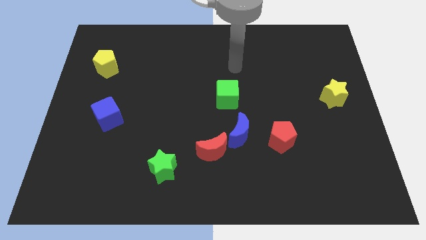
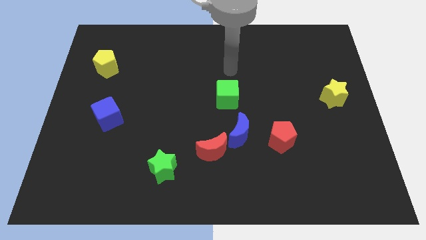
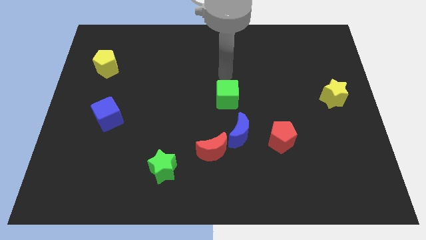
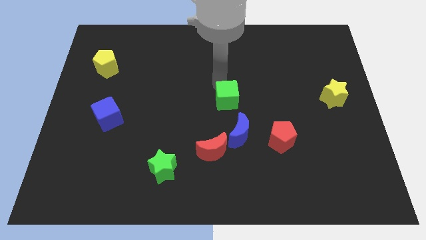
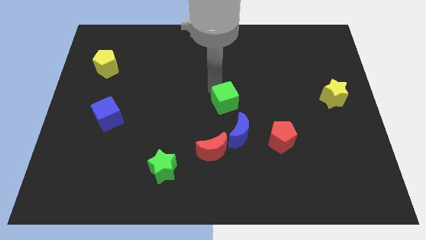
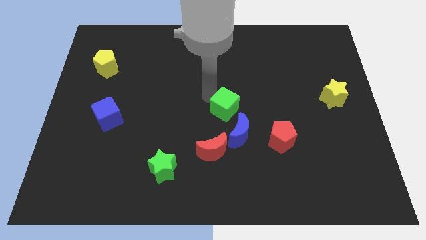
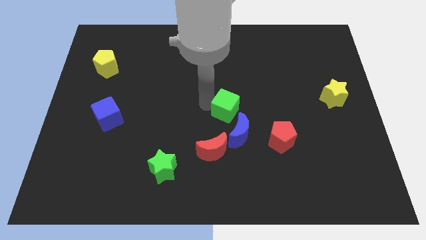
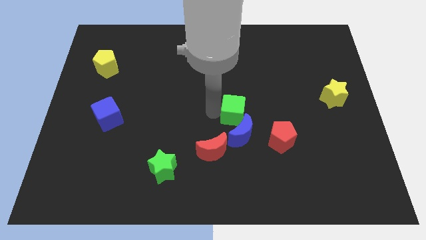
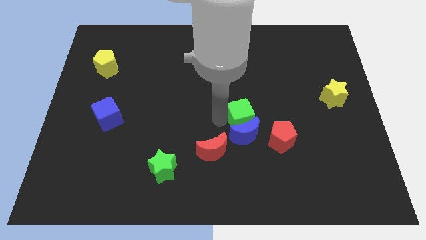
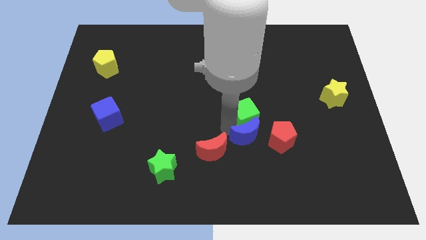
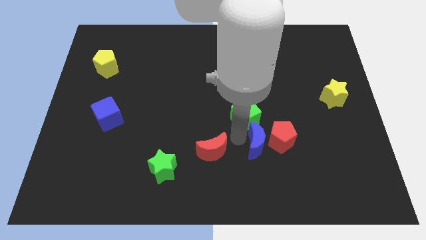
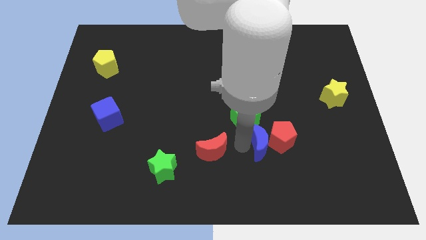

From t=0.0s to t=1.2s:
separate the red moon from the blue moon

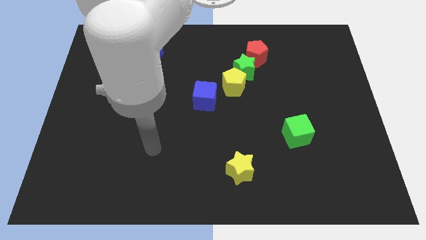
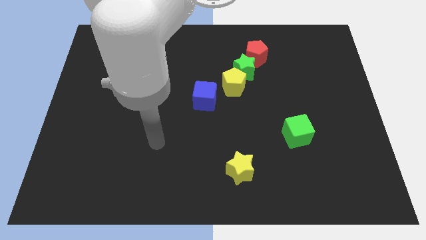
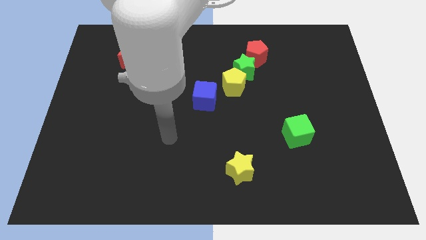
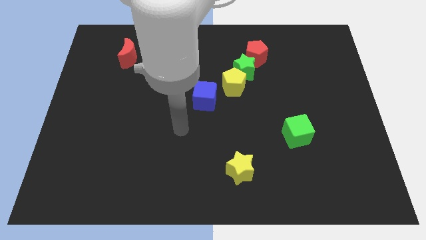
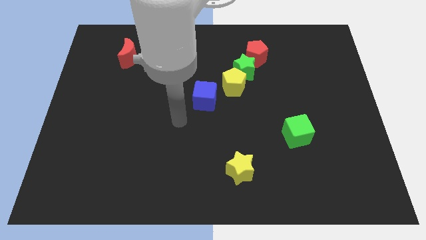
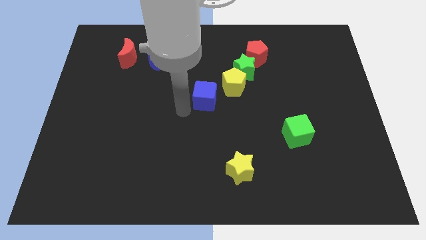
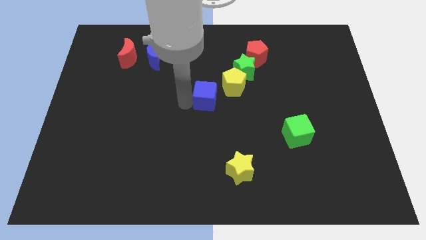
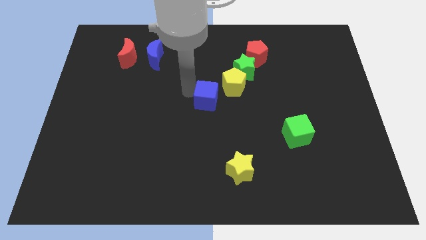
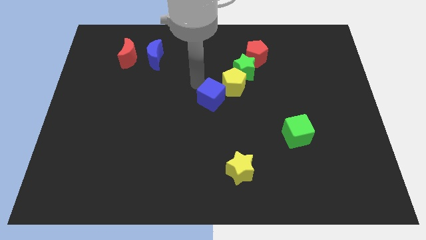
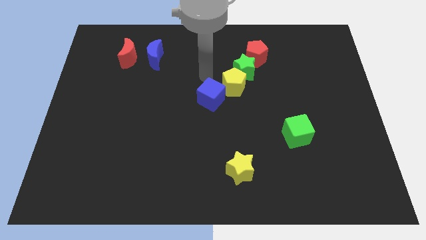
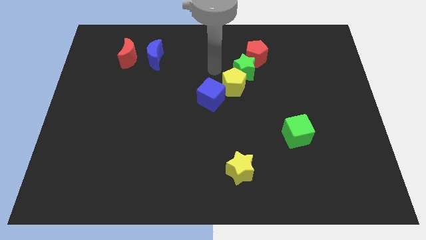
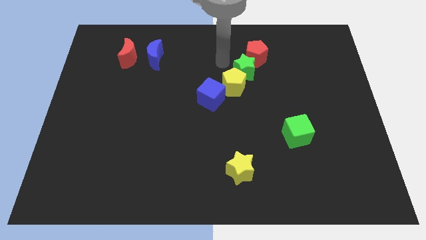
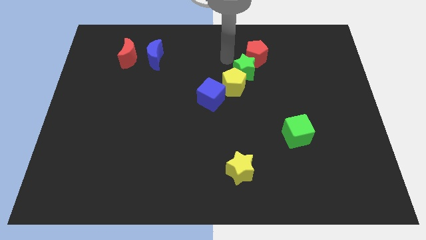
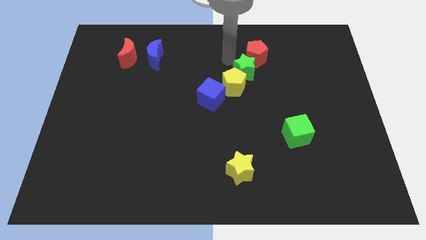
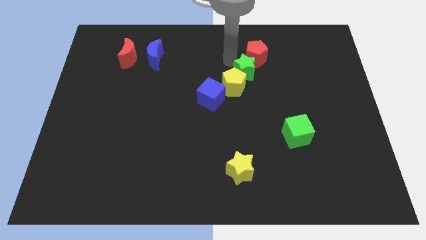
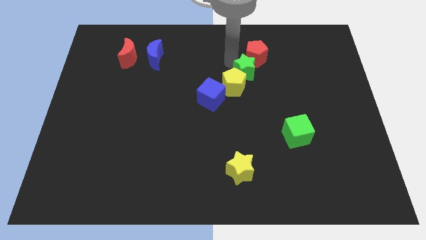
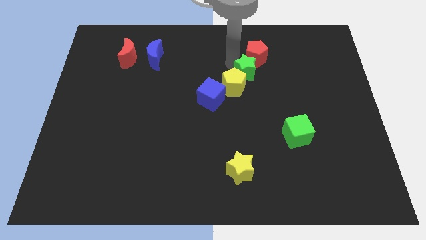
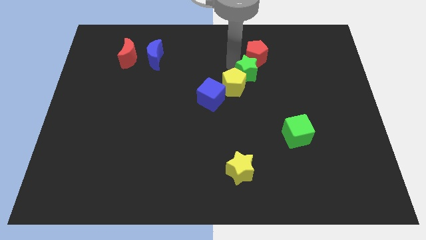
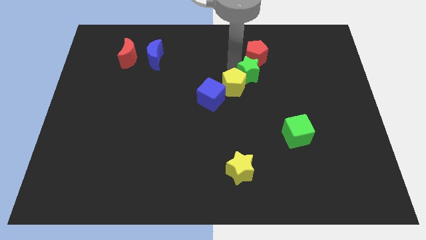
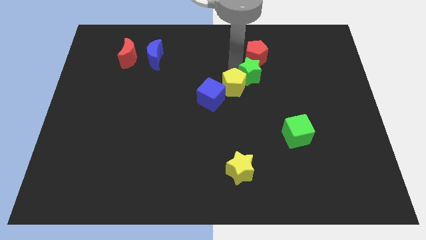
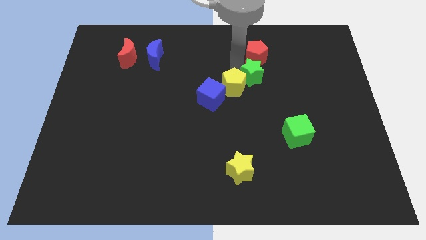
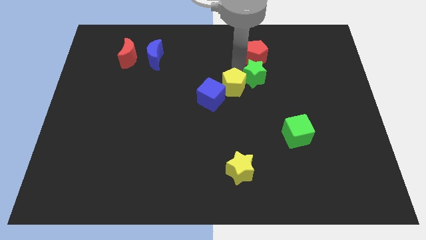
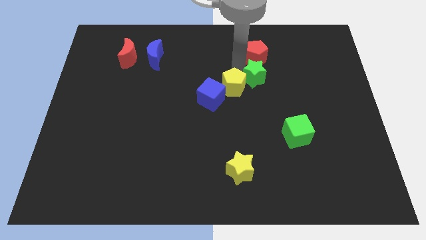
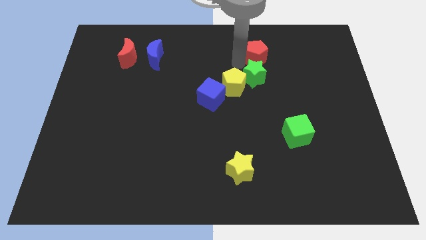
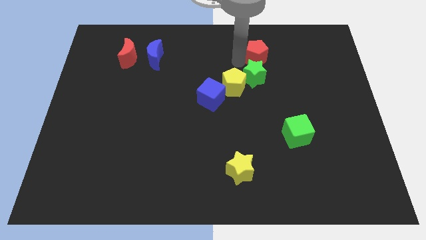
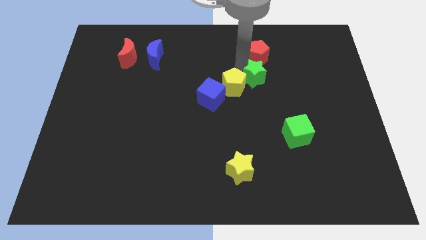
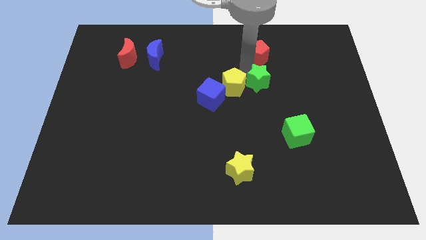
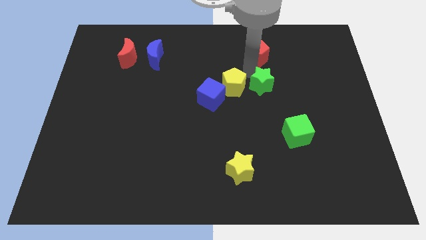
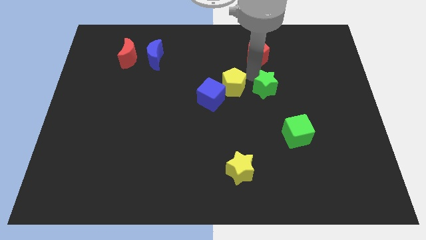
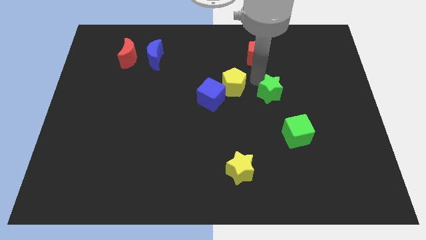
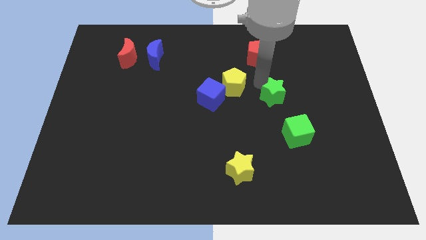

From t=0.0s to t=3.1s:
pull the green star apart from the yellow pentagon and red pentagon

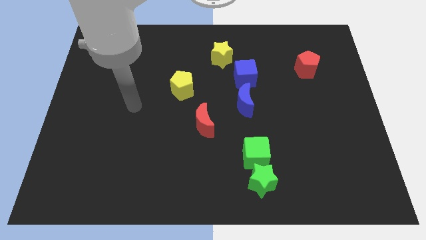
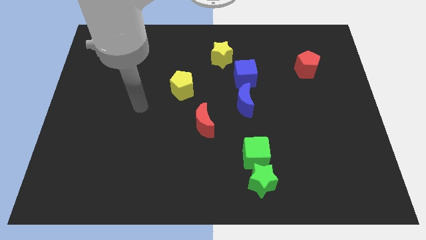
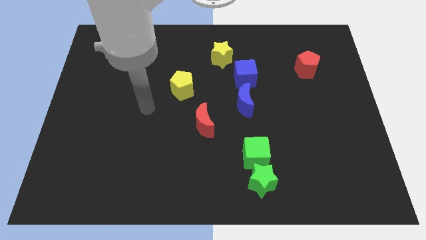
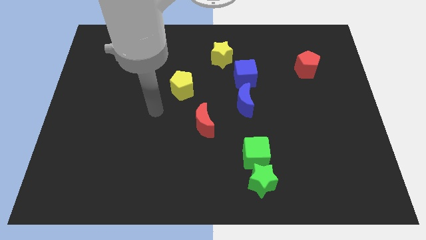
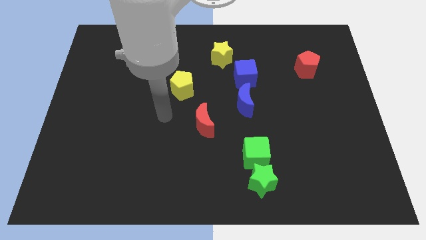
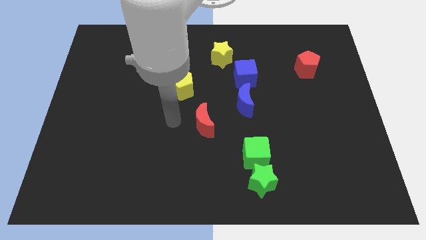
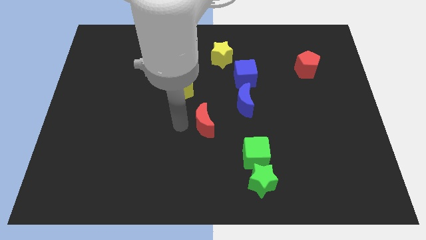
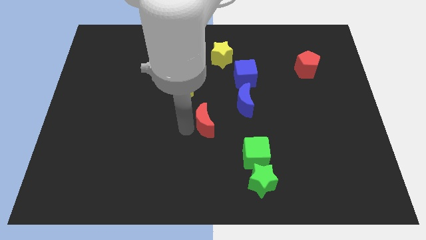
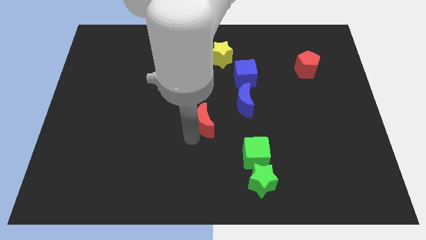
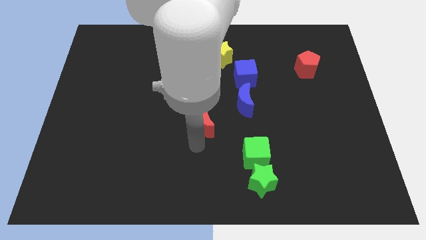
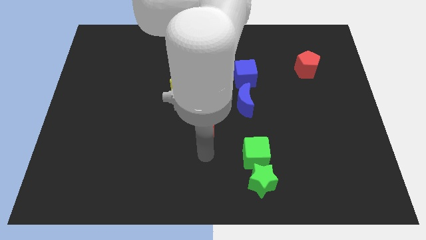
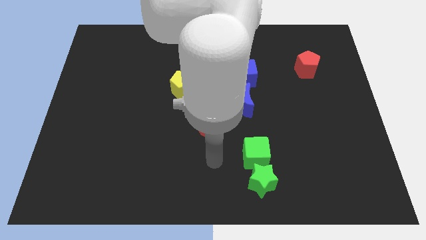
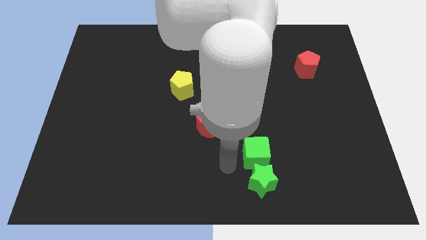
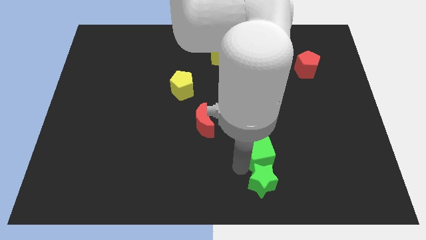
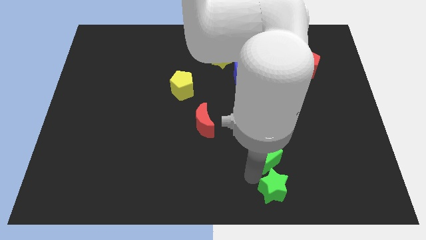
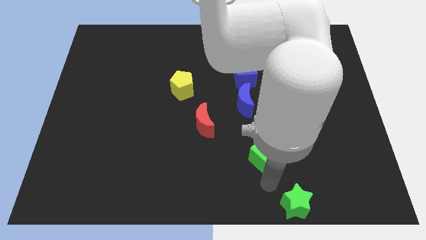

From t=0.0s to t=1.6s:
move the green cube away from the green star

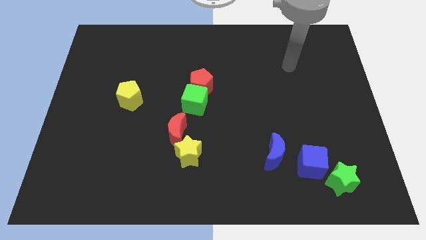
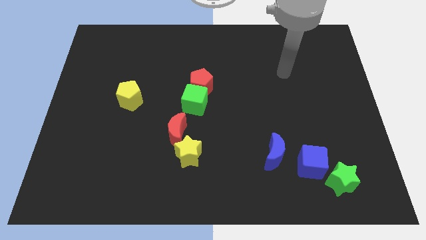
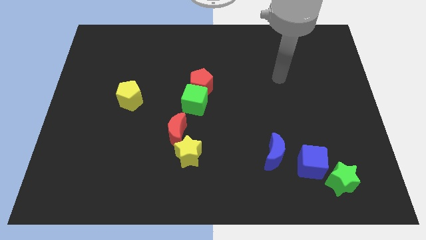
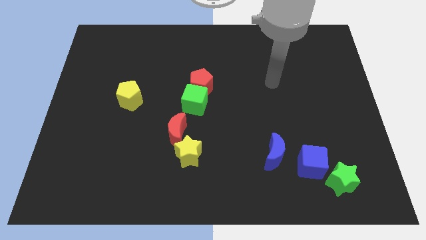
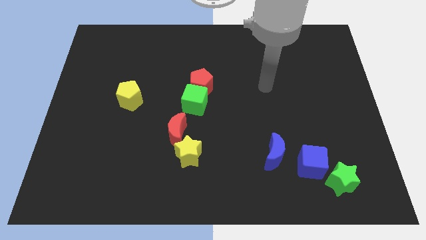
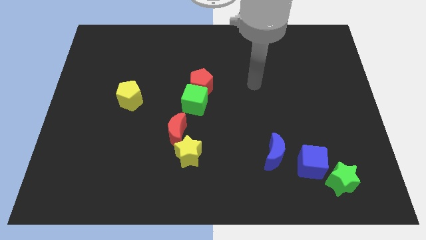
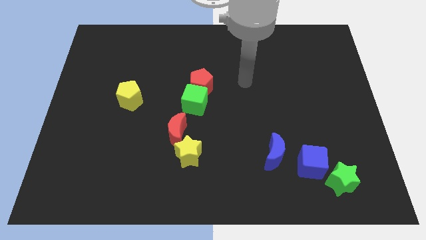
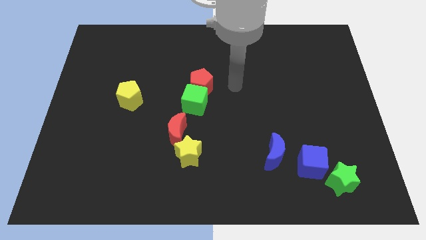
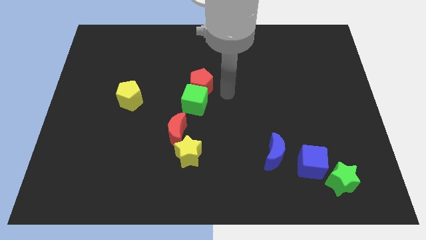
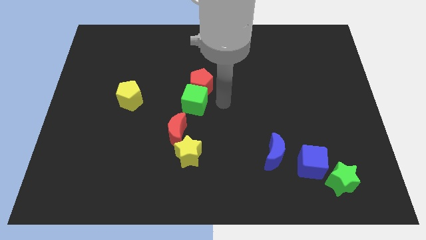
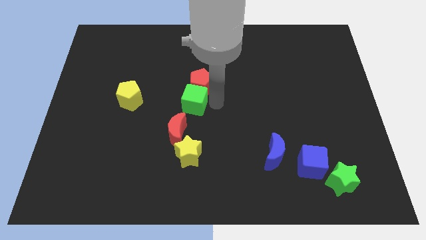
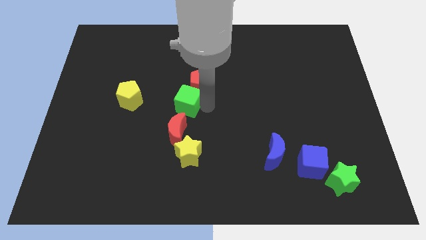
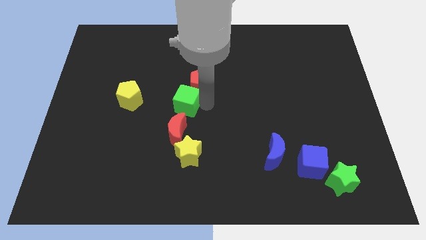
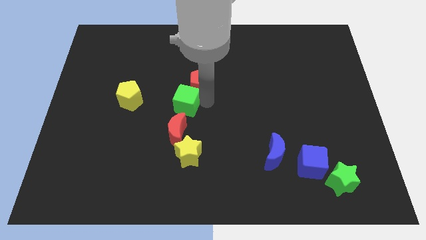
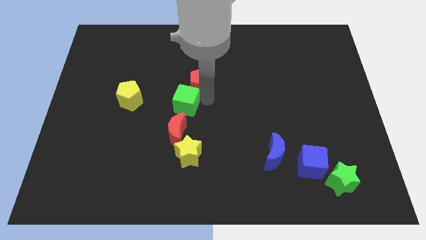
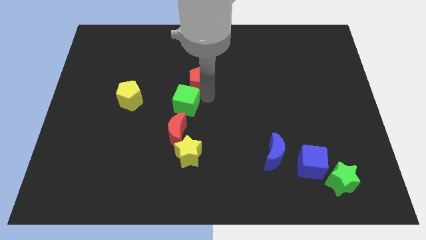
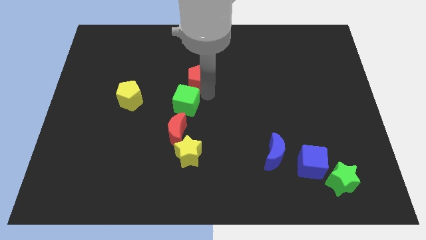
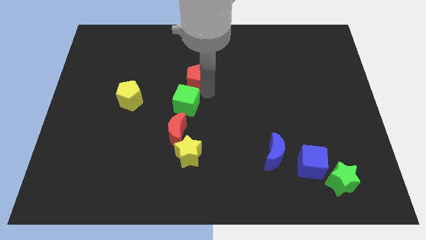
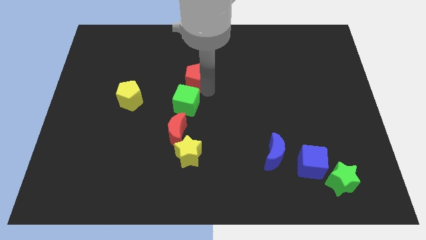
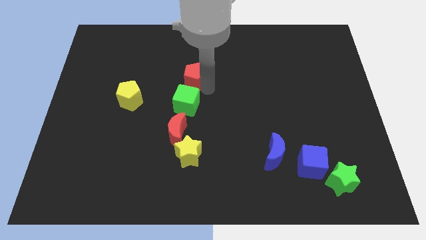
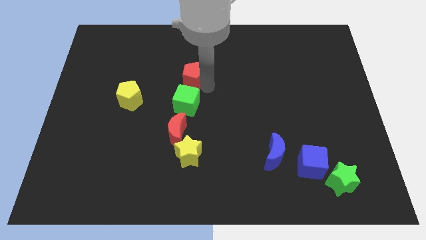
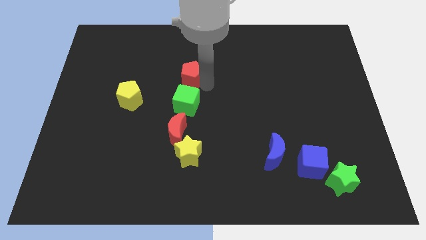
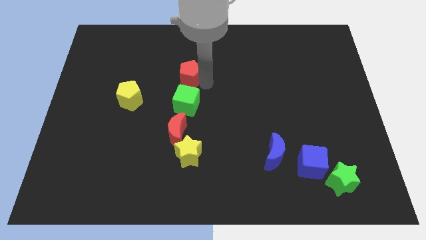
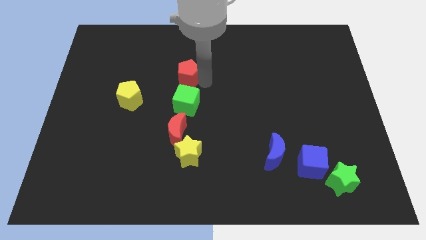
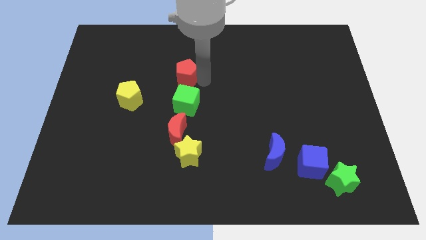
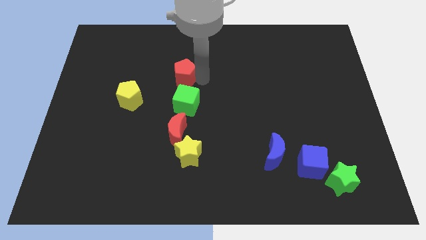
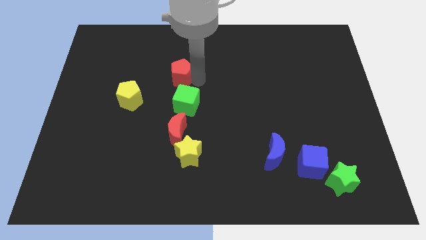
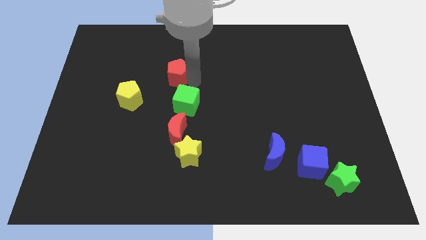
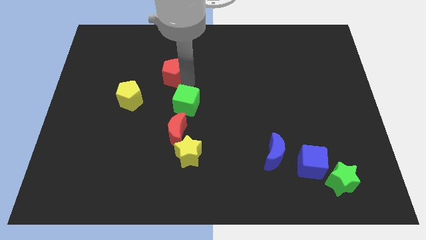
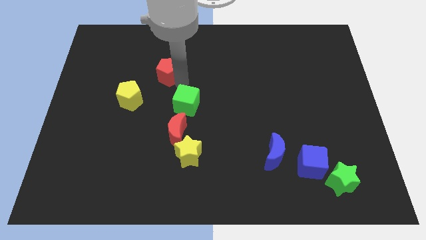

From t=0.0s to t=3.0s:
move the red pentagon away from the green cube

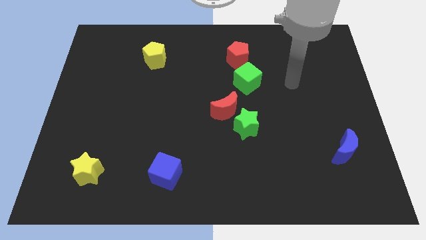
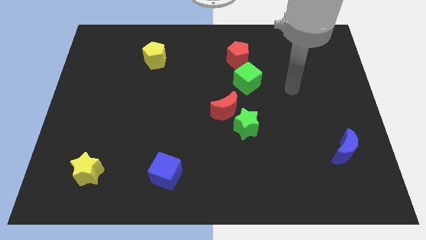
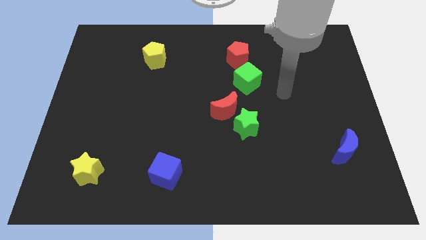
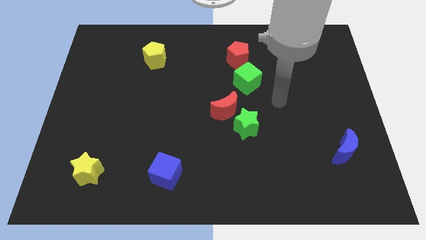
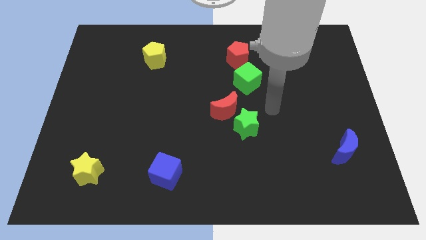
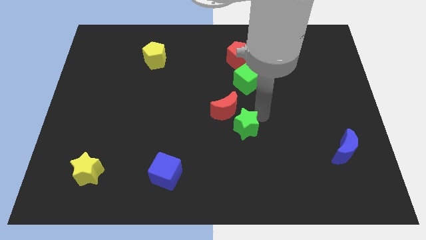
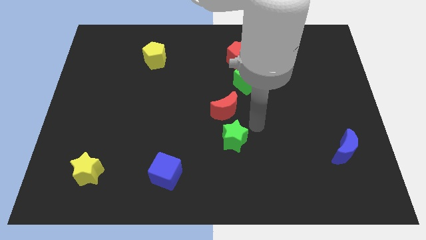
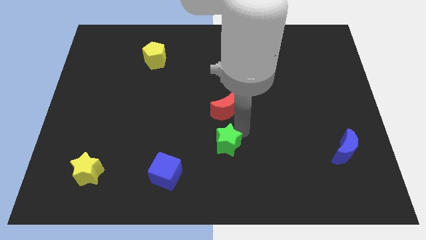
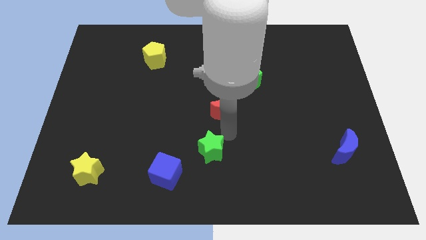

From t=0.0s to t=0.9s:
pull the red moon apart from the green star
